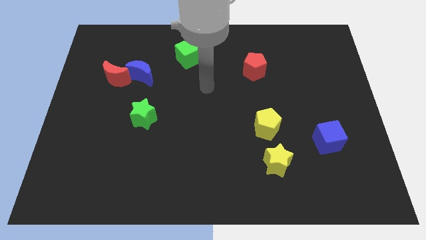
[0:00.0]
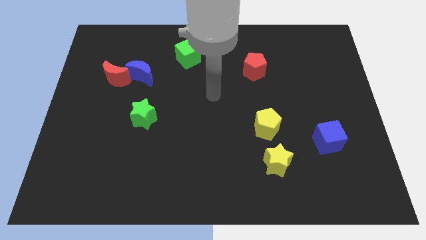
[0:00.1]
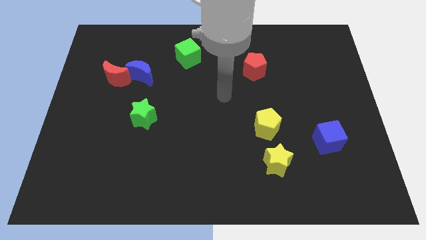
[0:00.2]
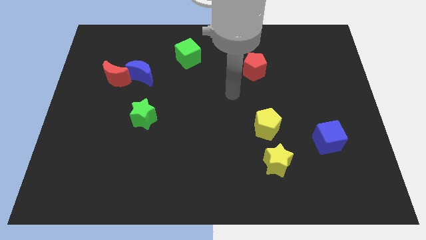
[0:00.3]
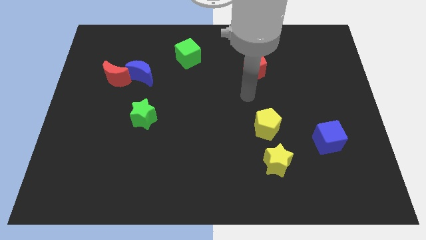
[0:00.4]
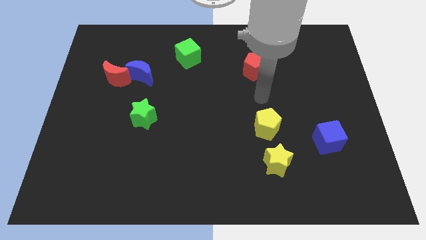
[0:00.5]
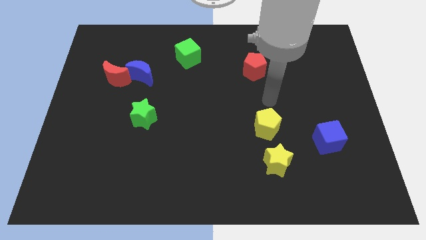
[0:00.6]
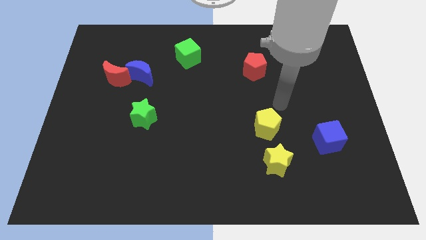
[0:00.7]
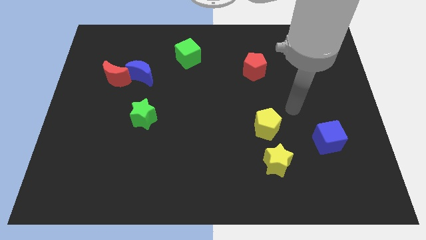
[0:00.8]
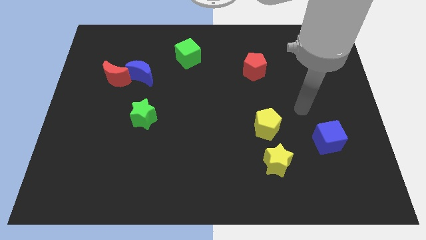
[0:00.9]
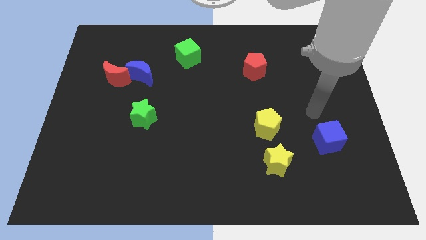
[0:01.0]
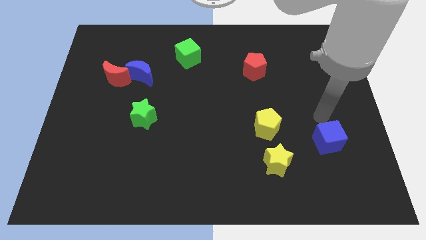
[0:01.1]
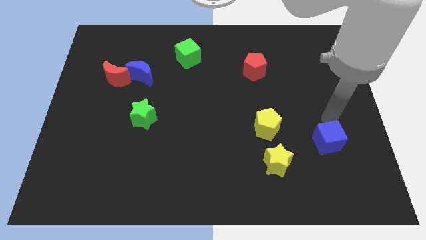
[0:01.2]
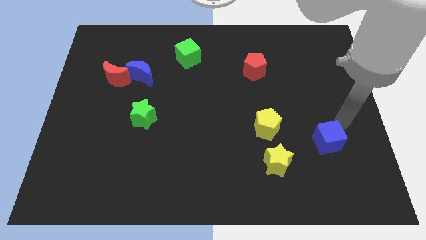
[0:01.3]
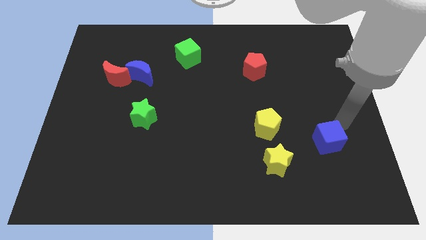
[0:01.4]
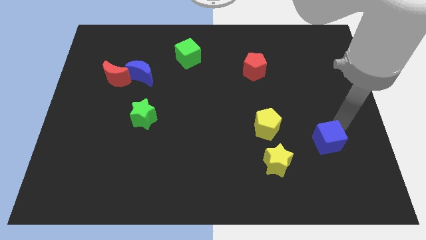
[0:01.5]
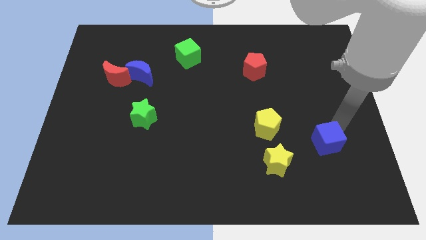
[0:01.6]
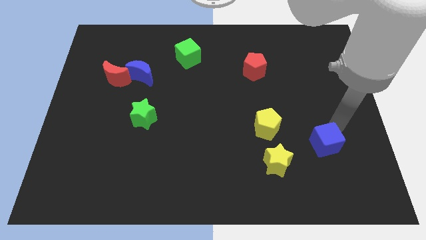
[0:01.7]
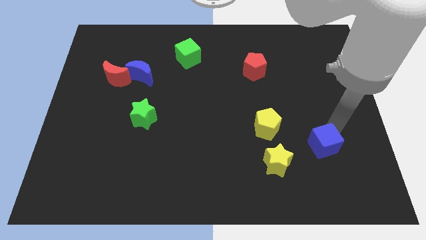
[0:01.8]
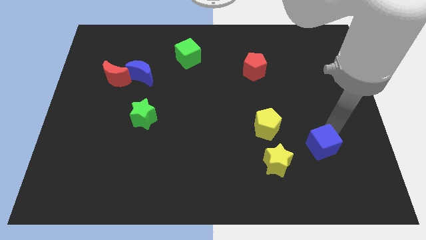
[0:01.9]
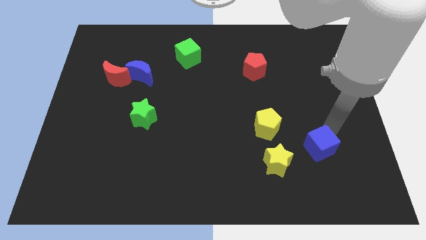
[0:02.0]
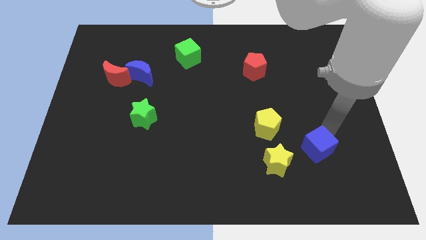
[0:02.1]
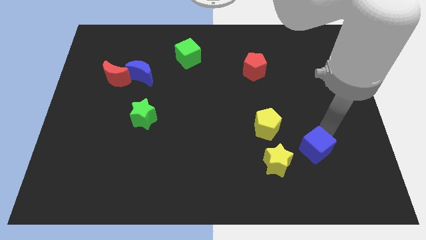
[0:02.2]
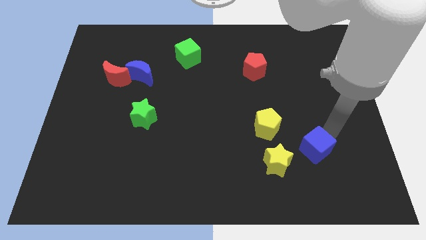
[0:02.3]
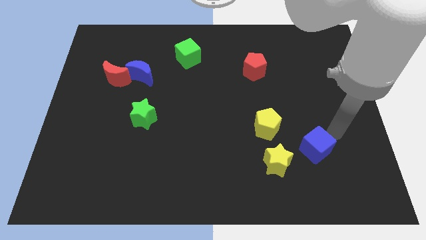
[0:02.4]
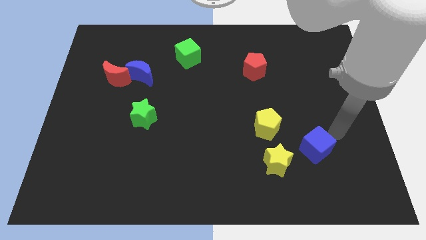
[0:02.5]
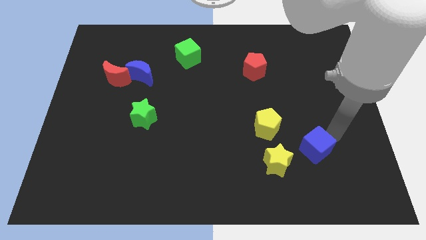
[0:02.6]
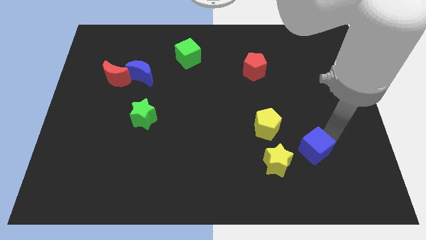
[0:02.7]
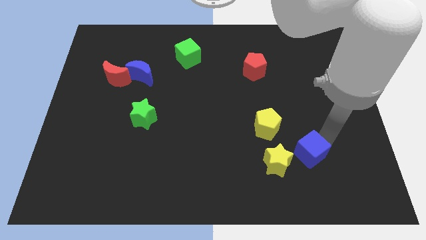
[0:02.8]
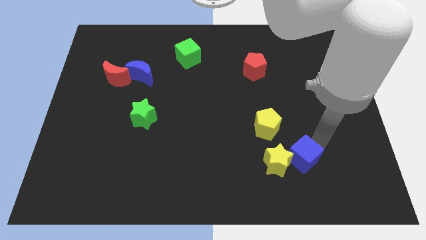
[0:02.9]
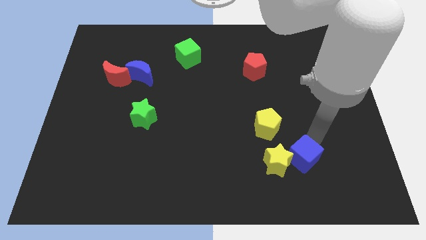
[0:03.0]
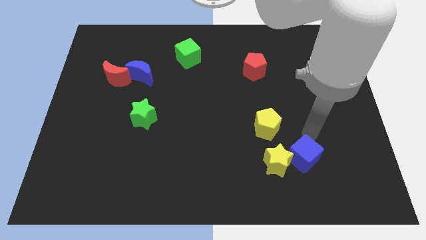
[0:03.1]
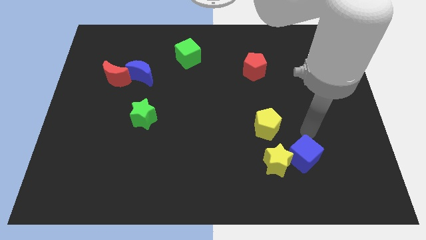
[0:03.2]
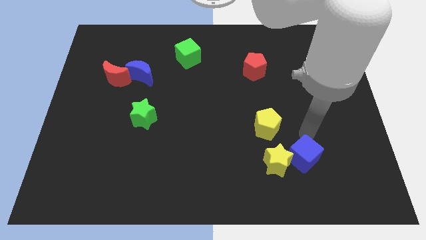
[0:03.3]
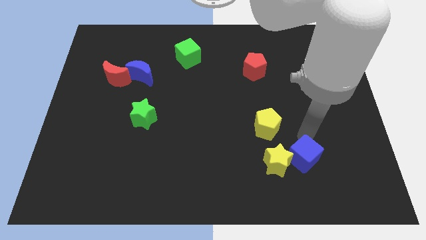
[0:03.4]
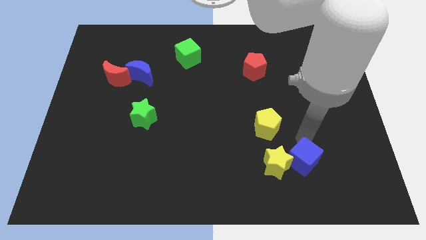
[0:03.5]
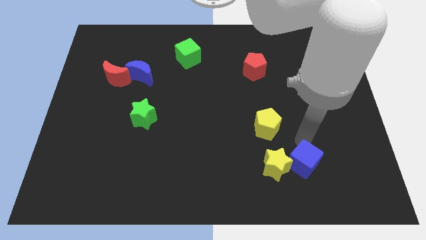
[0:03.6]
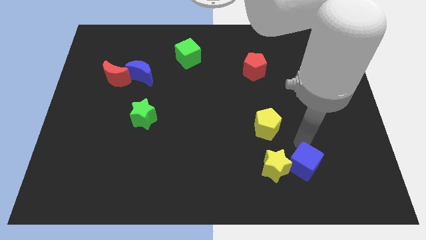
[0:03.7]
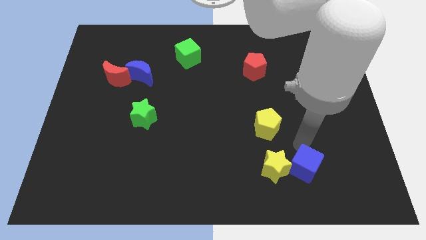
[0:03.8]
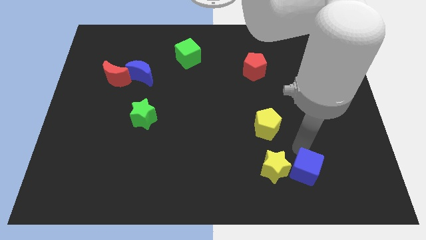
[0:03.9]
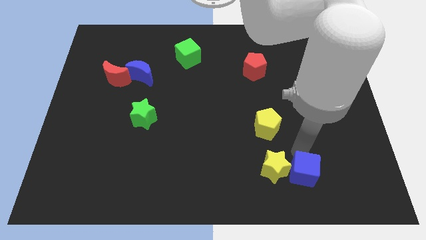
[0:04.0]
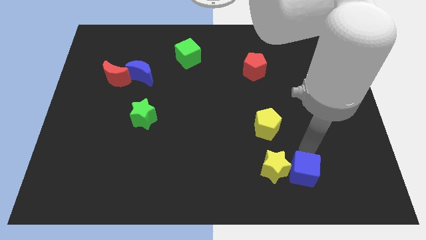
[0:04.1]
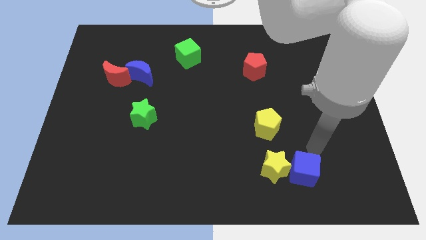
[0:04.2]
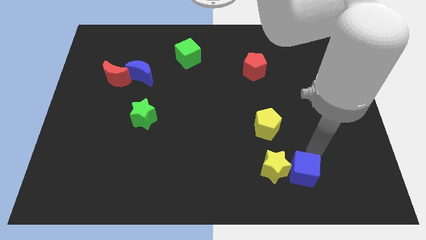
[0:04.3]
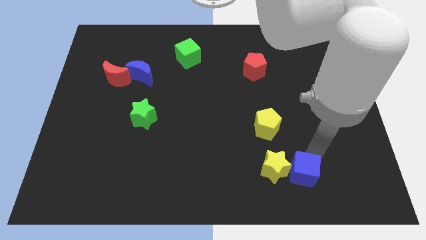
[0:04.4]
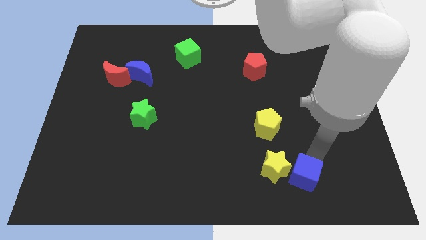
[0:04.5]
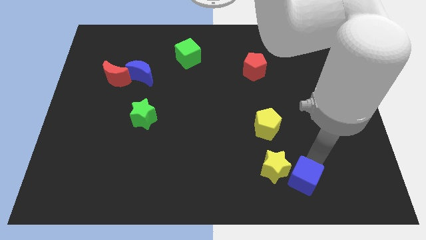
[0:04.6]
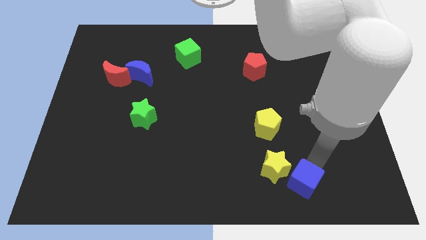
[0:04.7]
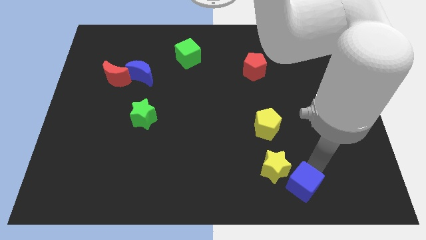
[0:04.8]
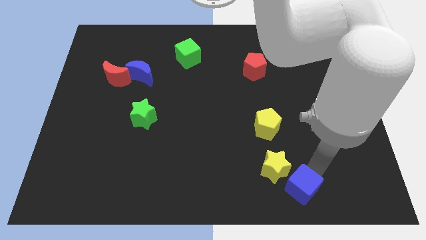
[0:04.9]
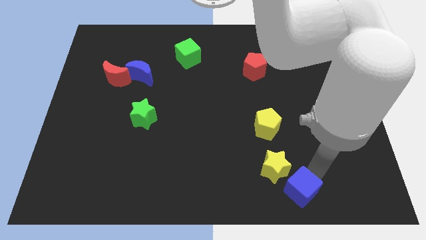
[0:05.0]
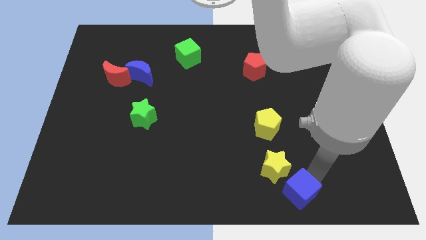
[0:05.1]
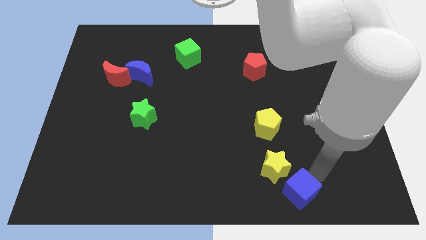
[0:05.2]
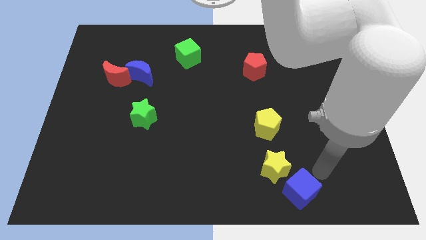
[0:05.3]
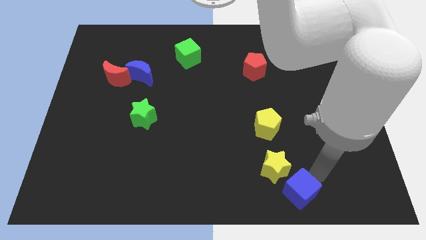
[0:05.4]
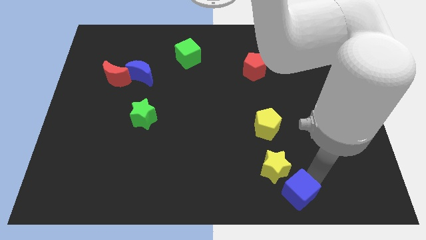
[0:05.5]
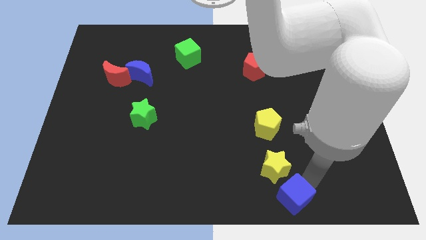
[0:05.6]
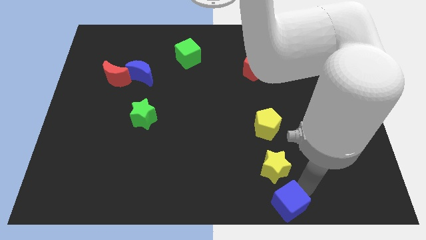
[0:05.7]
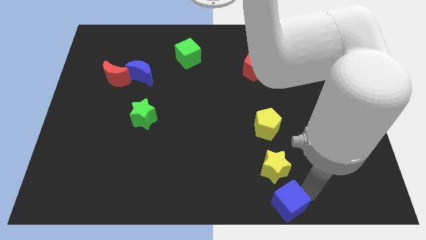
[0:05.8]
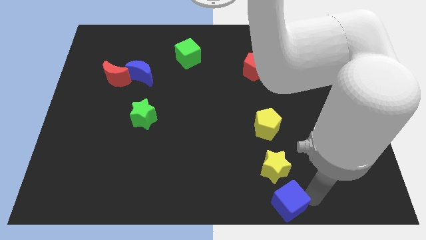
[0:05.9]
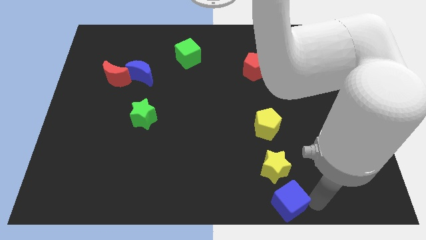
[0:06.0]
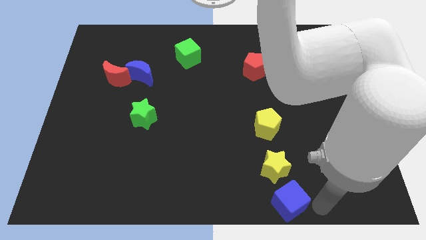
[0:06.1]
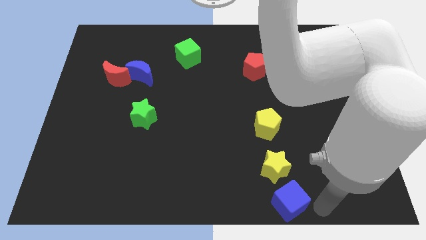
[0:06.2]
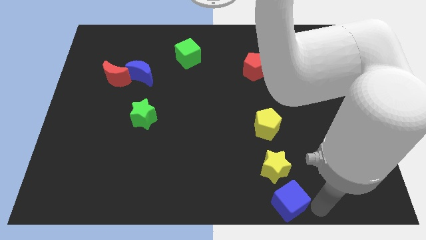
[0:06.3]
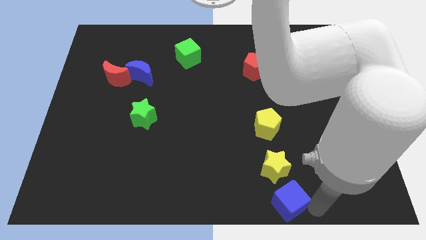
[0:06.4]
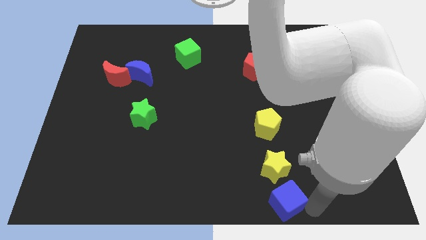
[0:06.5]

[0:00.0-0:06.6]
push the blue cube to the bottom side

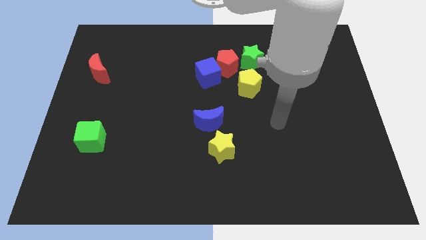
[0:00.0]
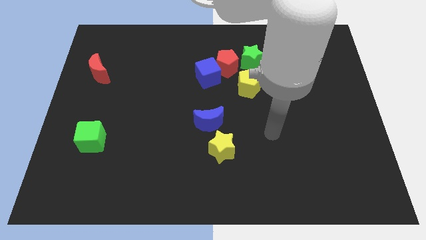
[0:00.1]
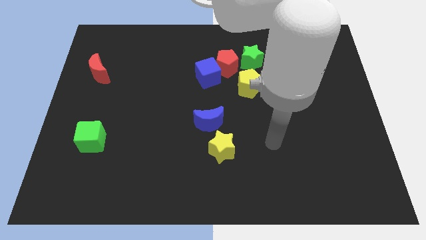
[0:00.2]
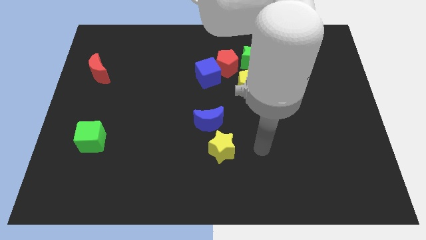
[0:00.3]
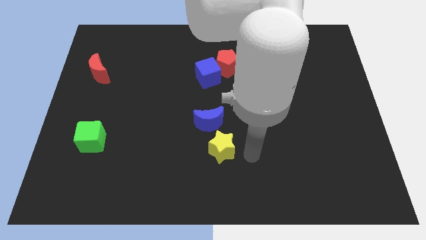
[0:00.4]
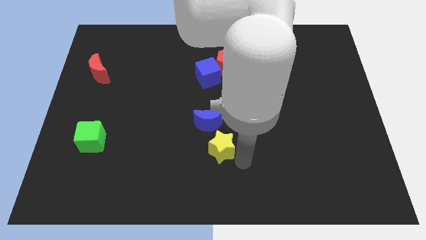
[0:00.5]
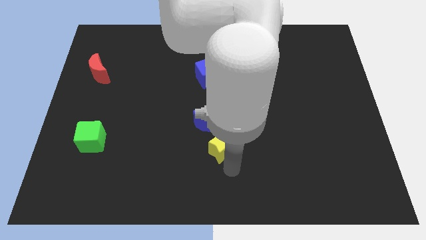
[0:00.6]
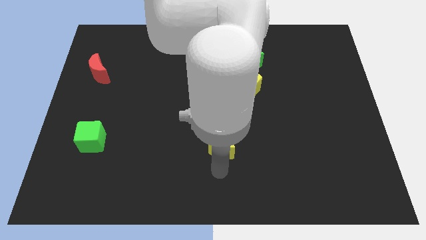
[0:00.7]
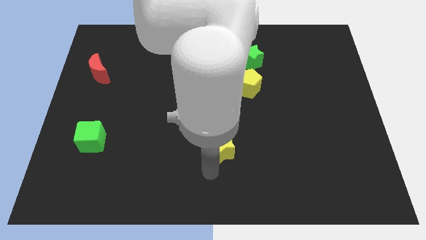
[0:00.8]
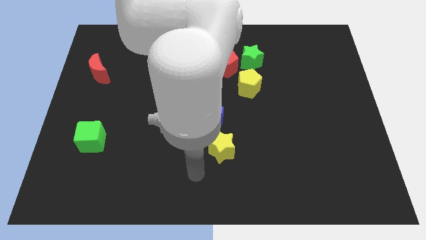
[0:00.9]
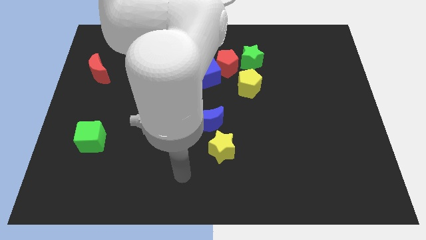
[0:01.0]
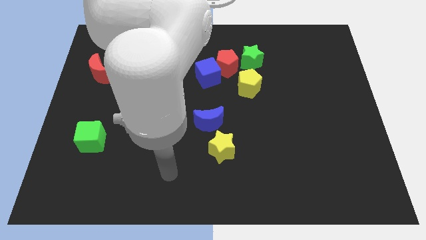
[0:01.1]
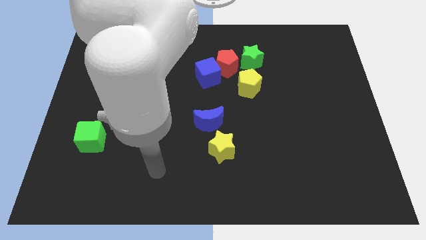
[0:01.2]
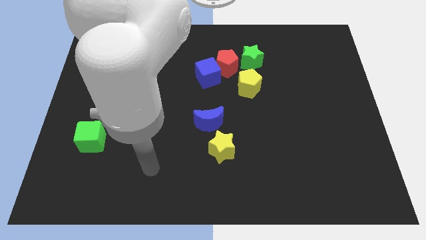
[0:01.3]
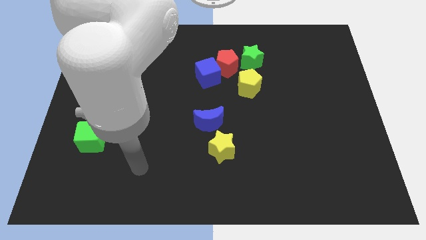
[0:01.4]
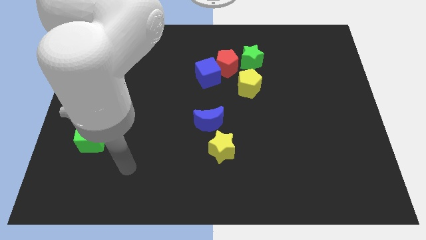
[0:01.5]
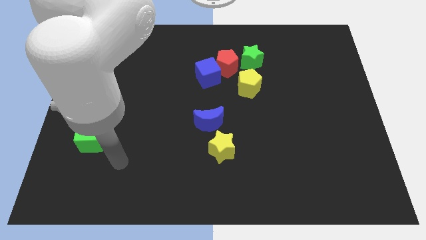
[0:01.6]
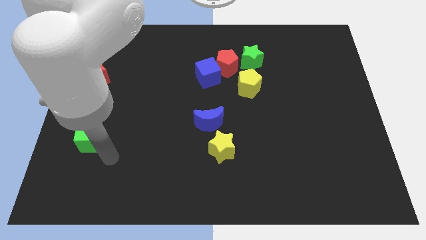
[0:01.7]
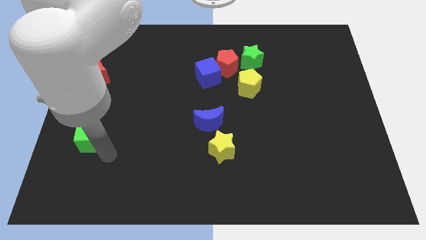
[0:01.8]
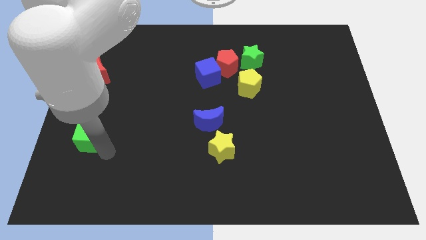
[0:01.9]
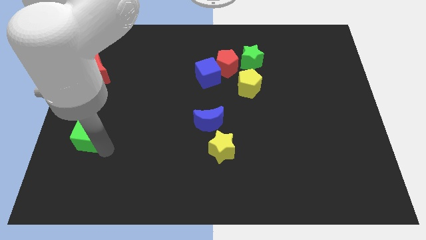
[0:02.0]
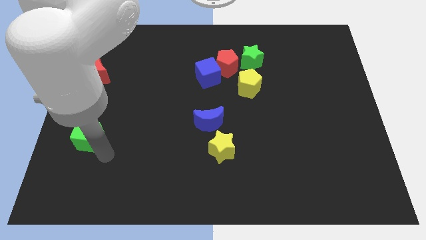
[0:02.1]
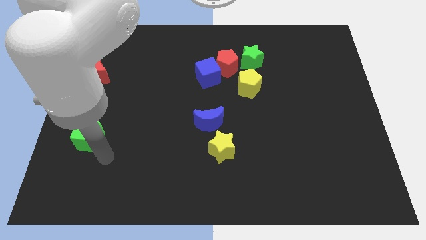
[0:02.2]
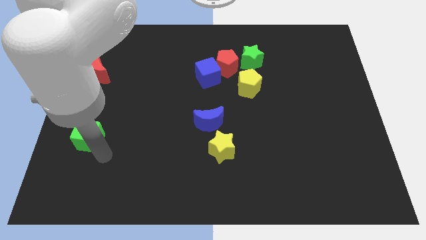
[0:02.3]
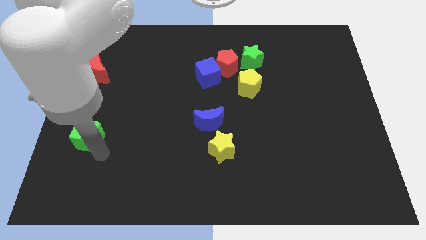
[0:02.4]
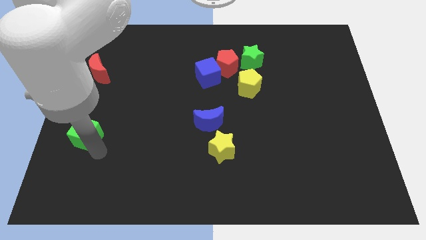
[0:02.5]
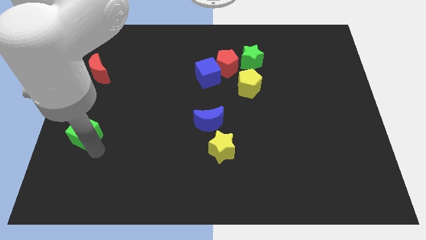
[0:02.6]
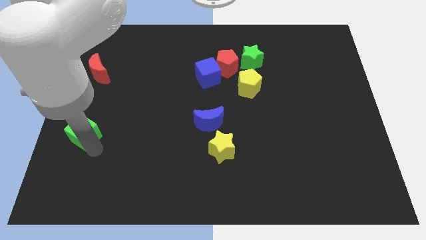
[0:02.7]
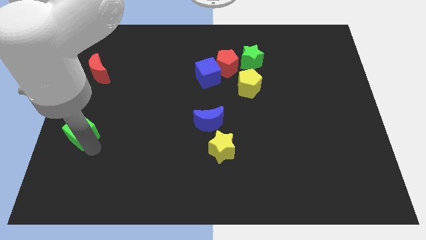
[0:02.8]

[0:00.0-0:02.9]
move the green cube to the left side
